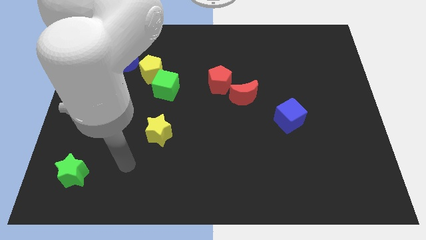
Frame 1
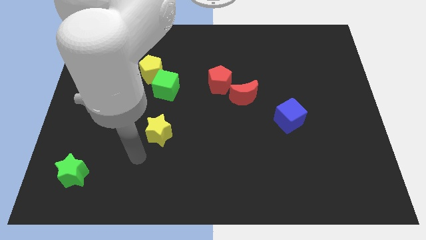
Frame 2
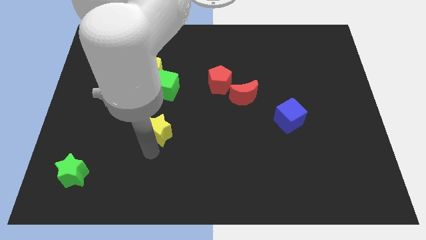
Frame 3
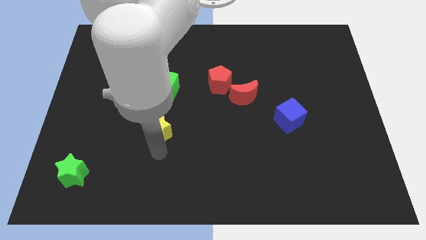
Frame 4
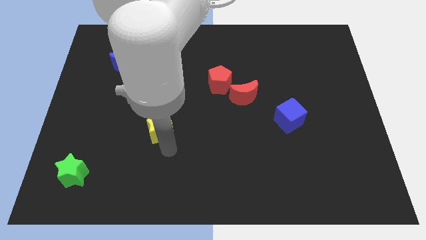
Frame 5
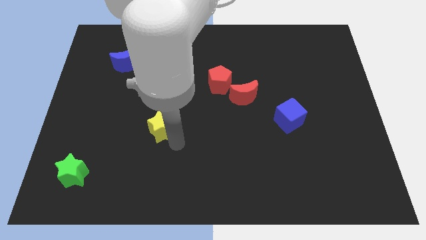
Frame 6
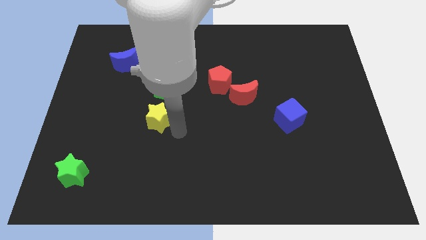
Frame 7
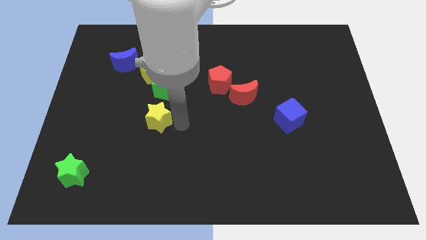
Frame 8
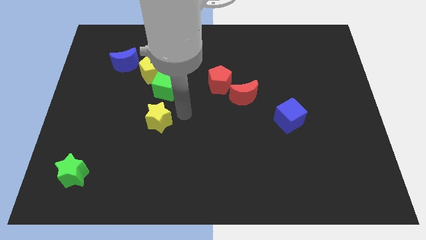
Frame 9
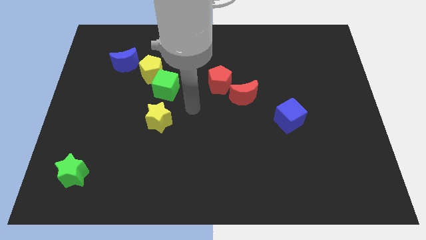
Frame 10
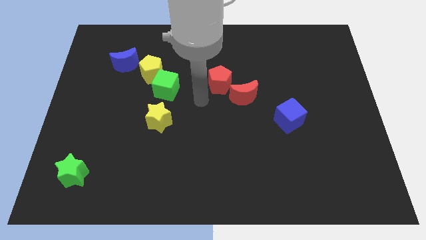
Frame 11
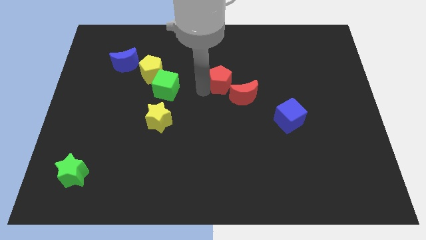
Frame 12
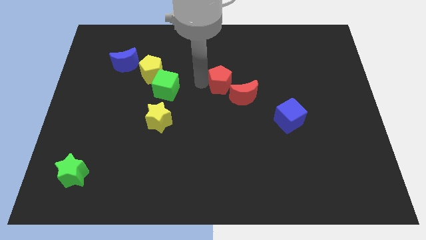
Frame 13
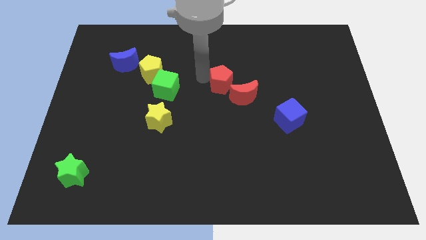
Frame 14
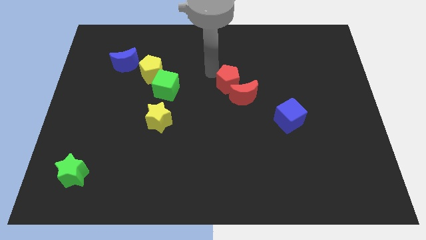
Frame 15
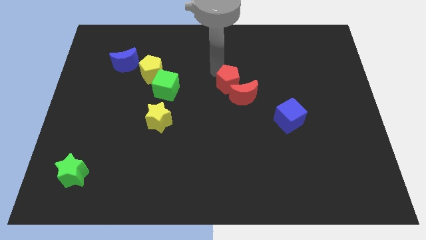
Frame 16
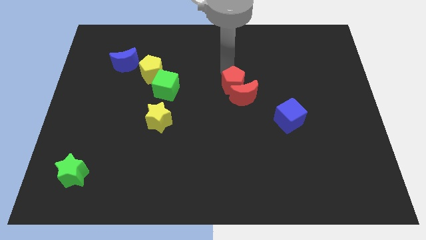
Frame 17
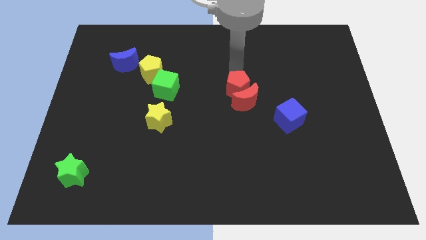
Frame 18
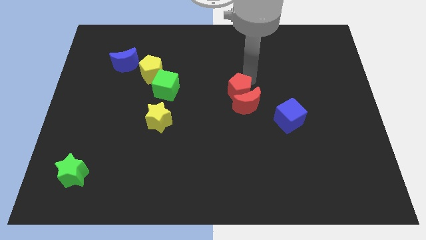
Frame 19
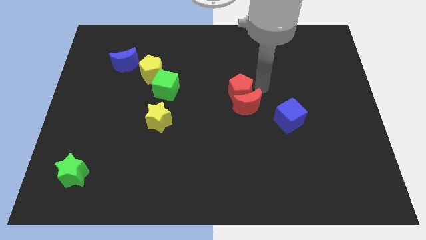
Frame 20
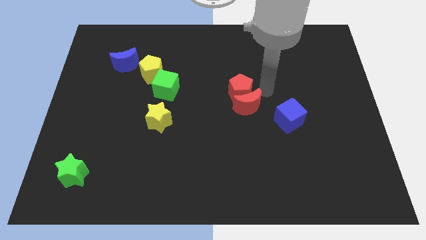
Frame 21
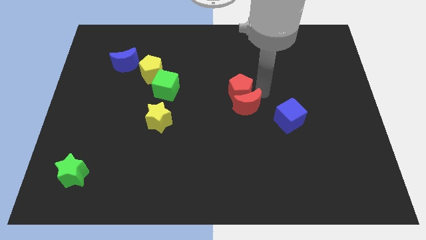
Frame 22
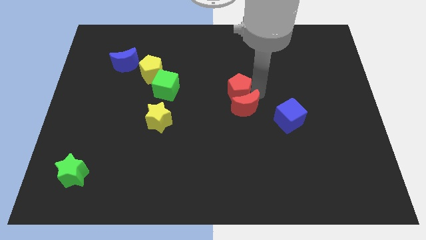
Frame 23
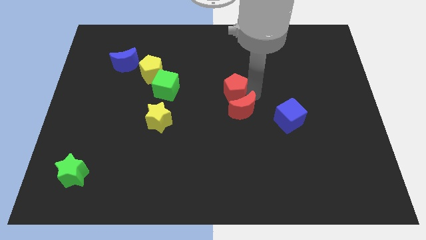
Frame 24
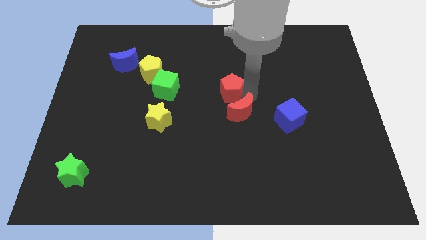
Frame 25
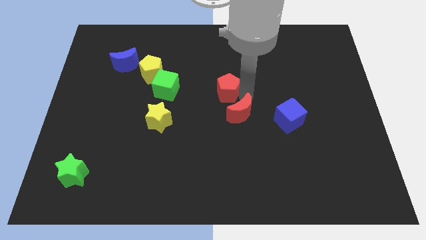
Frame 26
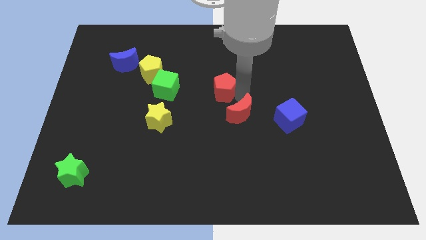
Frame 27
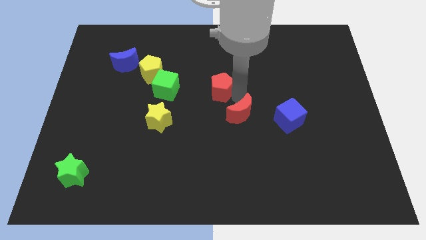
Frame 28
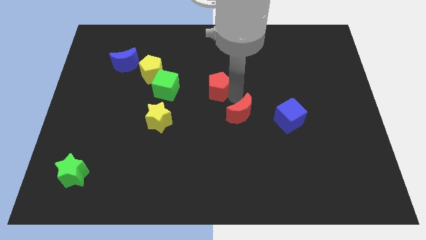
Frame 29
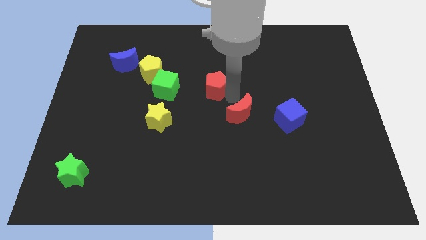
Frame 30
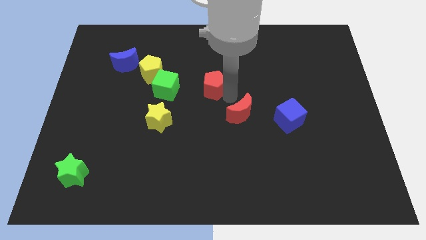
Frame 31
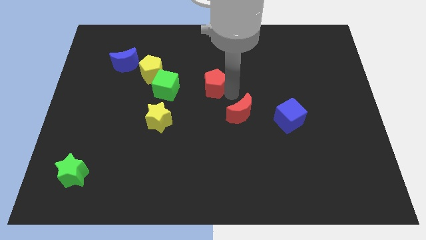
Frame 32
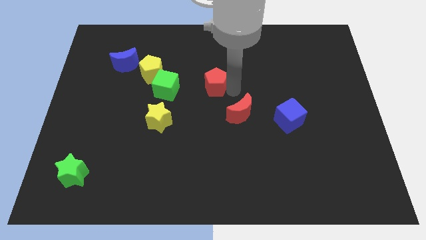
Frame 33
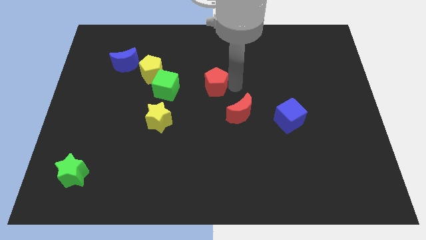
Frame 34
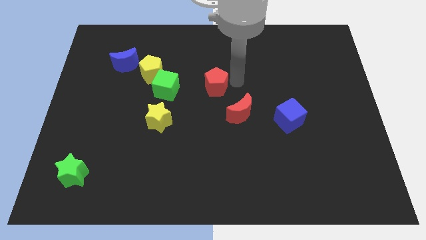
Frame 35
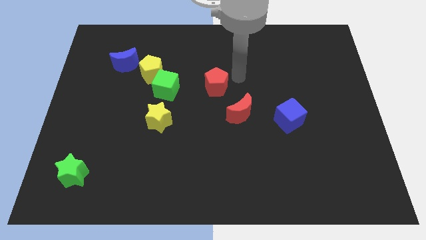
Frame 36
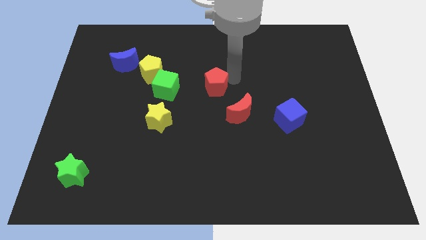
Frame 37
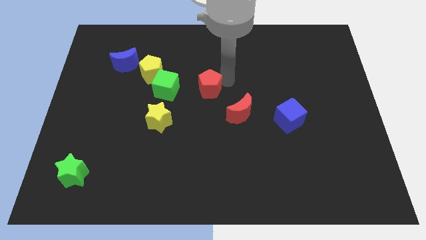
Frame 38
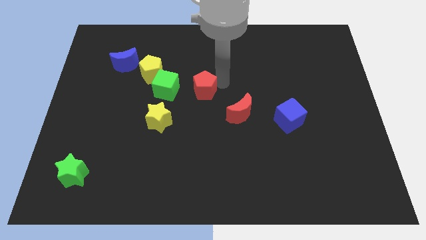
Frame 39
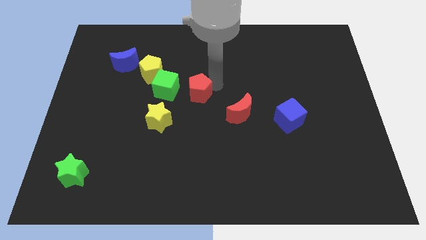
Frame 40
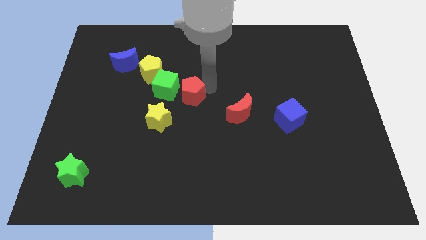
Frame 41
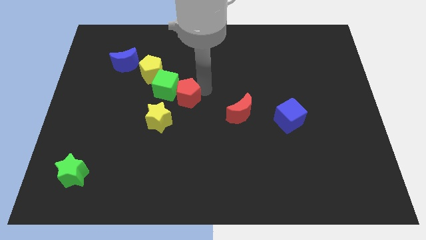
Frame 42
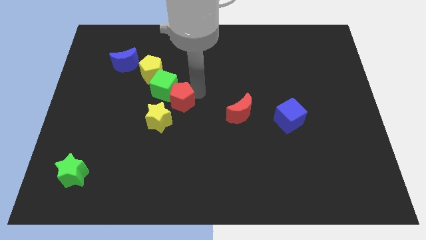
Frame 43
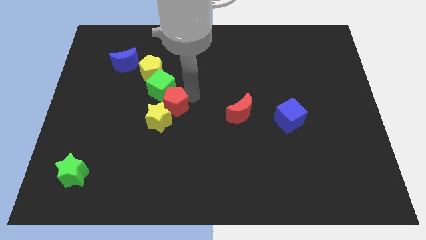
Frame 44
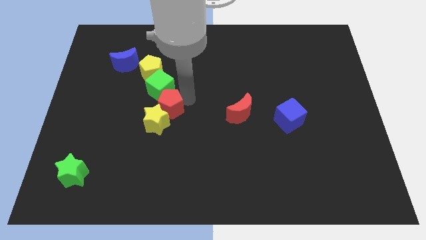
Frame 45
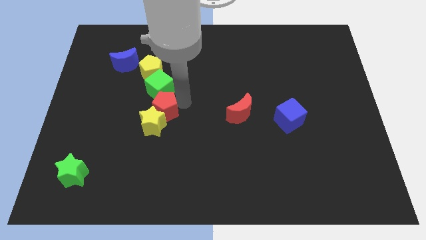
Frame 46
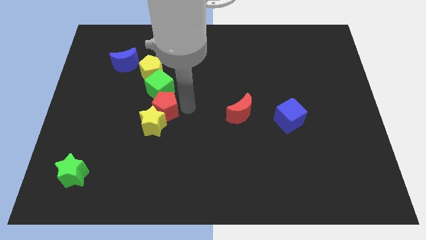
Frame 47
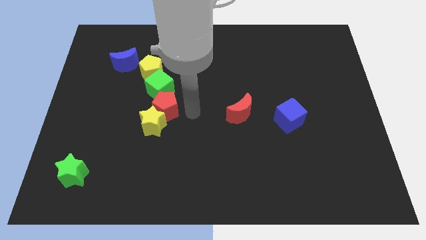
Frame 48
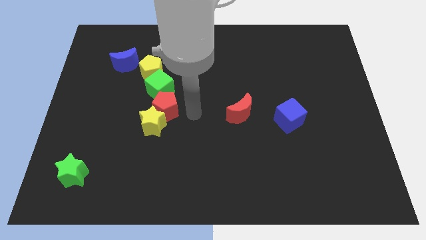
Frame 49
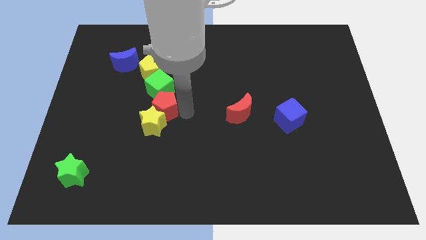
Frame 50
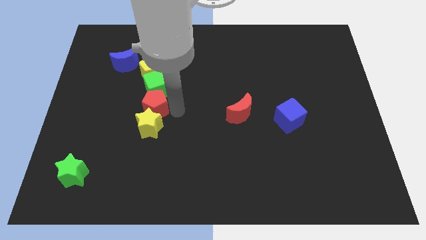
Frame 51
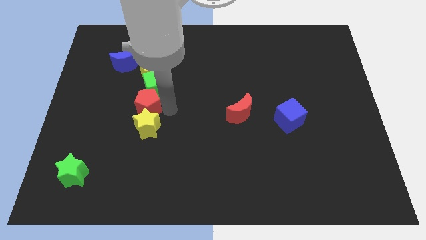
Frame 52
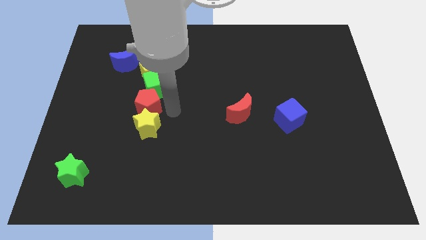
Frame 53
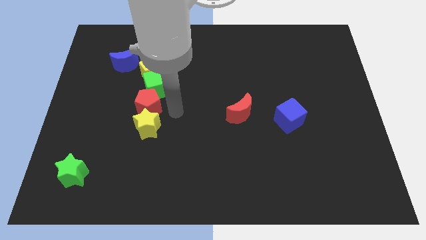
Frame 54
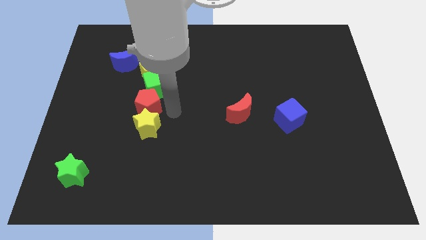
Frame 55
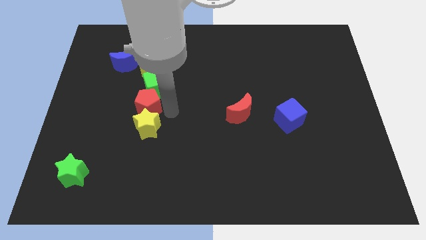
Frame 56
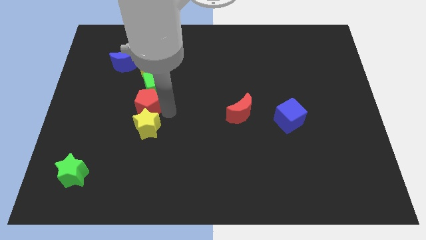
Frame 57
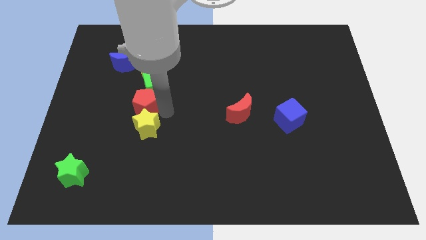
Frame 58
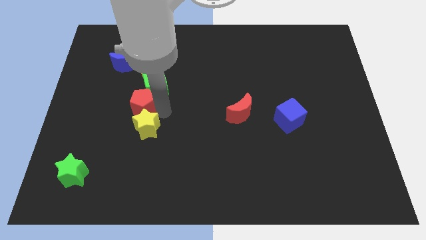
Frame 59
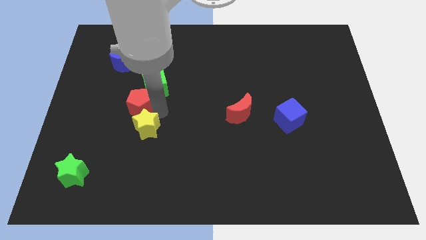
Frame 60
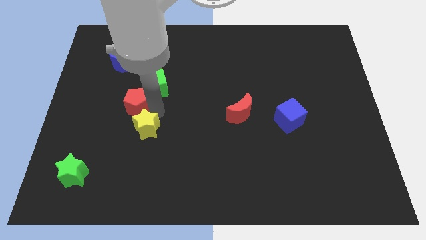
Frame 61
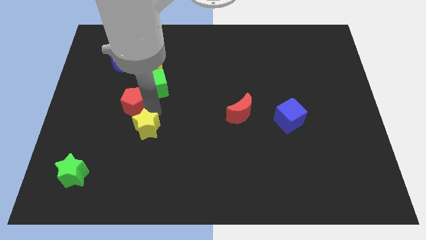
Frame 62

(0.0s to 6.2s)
slide the red pentagon below the blue moon

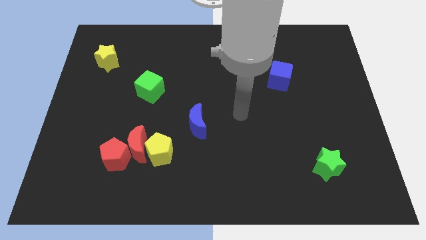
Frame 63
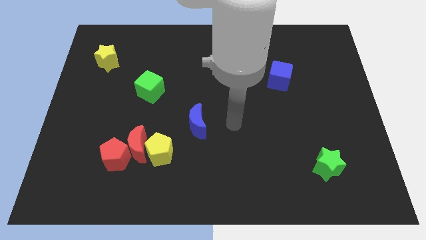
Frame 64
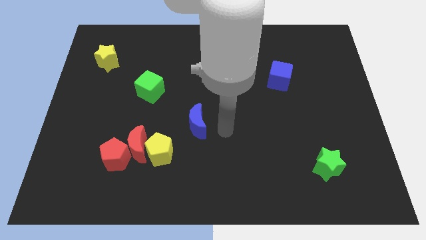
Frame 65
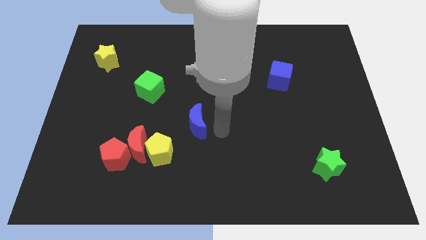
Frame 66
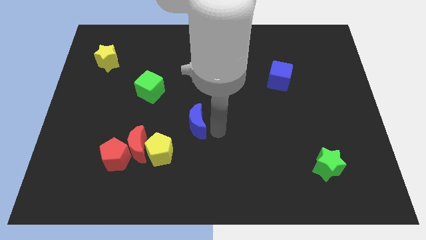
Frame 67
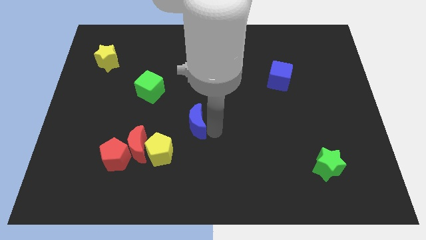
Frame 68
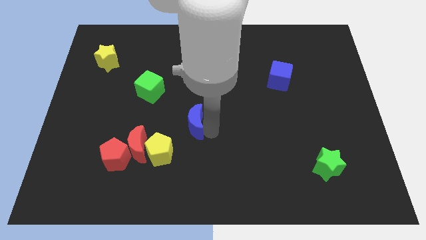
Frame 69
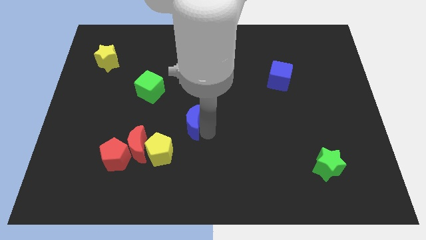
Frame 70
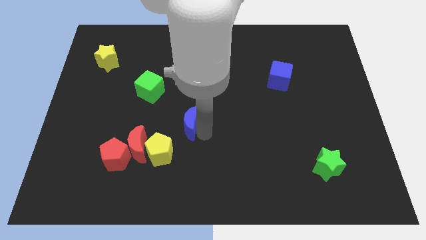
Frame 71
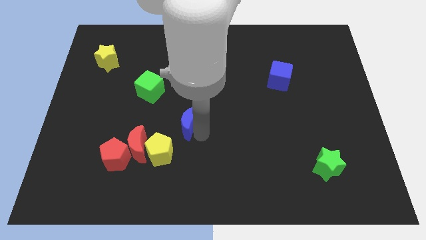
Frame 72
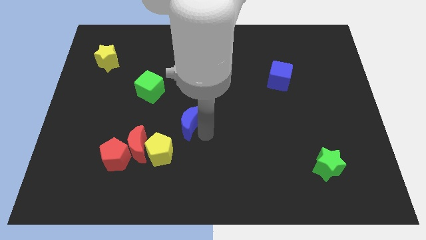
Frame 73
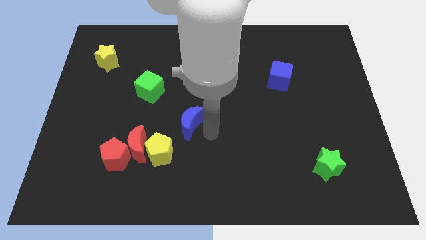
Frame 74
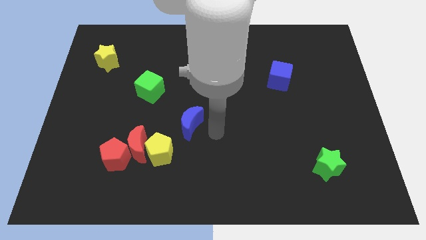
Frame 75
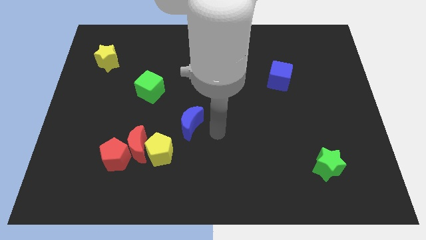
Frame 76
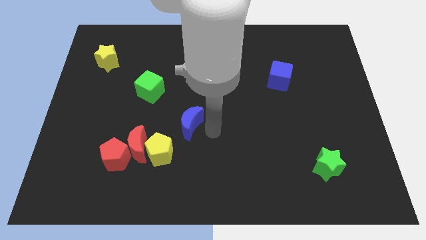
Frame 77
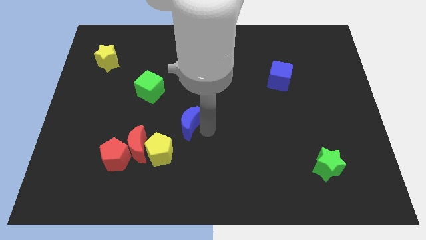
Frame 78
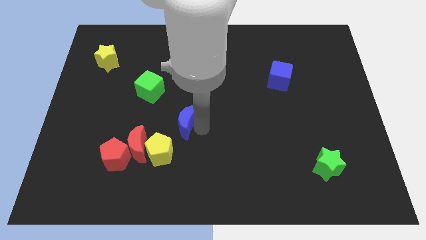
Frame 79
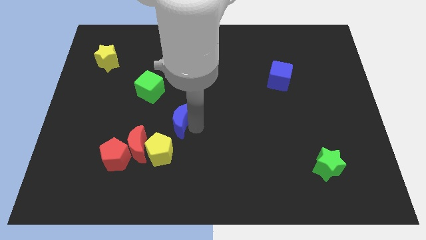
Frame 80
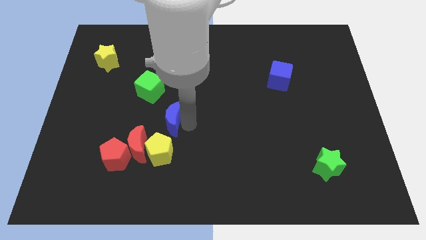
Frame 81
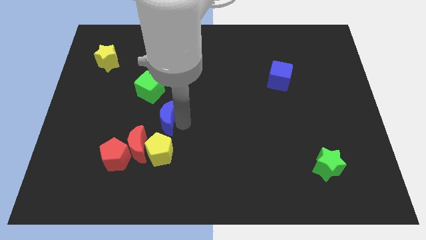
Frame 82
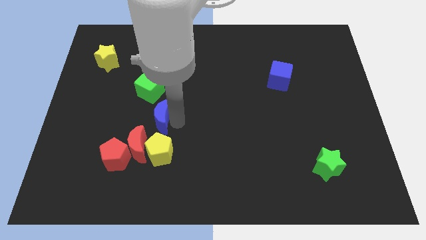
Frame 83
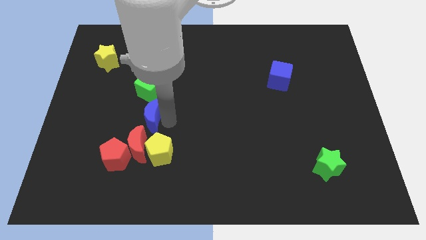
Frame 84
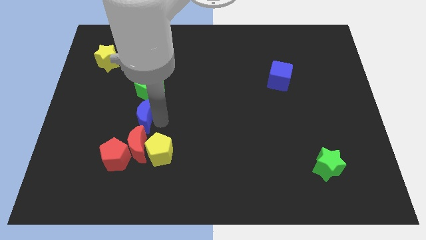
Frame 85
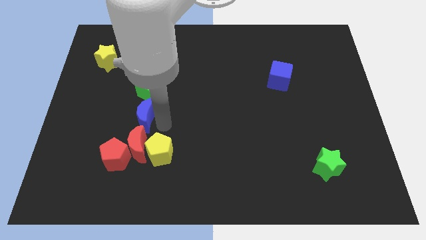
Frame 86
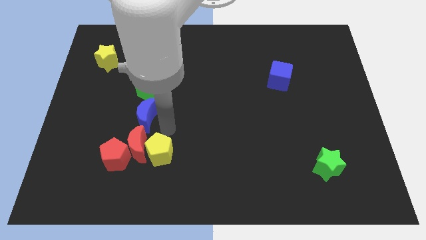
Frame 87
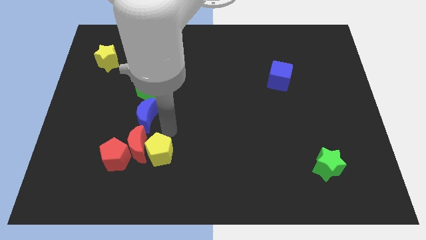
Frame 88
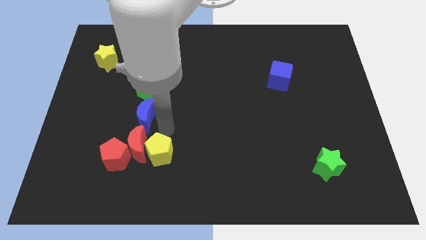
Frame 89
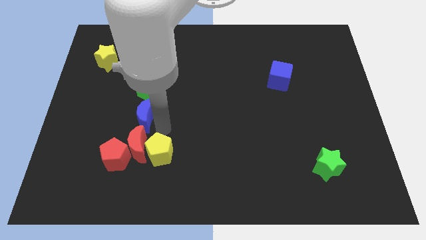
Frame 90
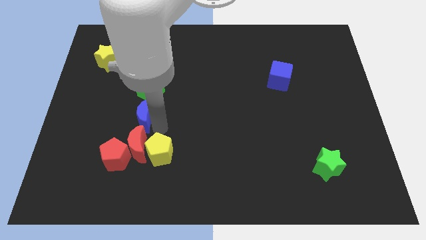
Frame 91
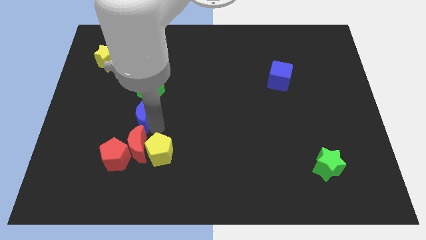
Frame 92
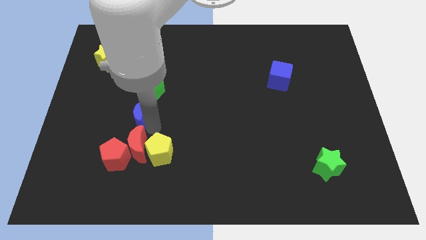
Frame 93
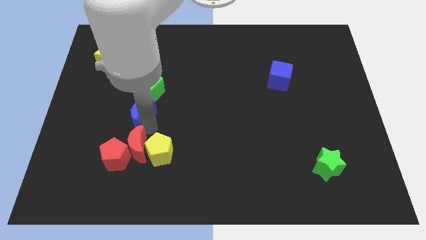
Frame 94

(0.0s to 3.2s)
move the blue moon to the bottom left of the green cube
